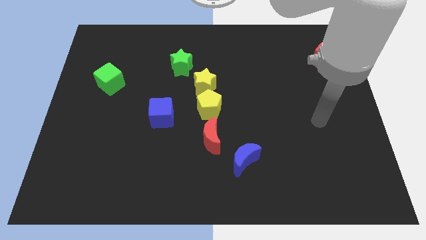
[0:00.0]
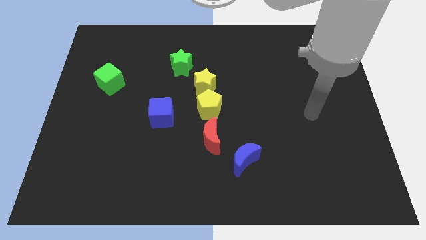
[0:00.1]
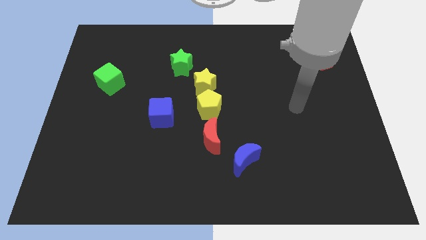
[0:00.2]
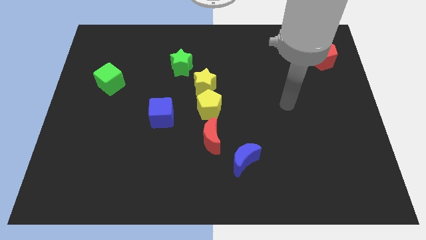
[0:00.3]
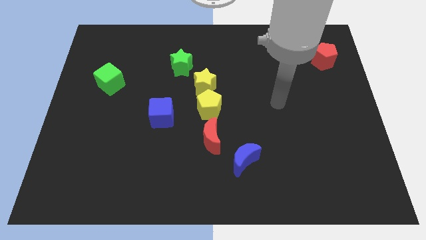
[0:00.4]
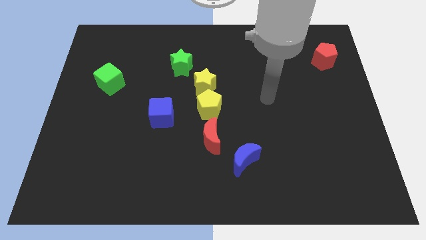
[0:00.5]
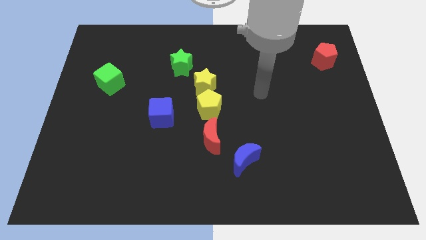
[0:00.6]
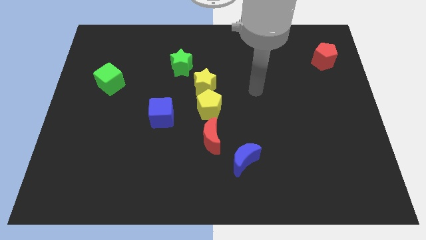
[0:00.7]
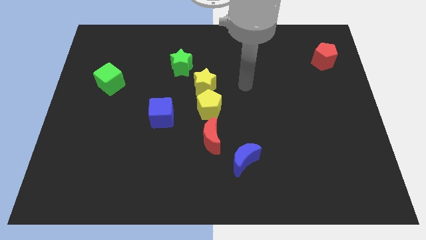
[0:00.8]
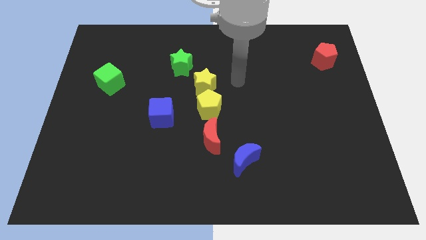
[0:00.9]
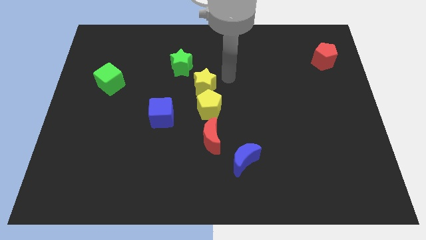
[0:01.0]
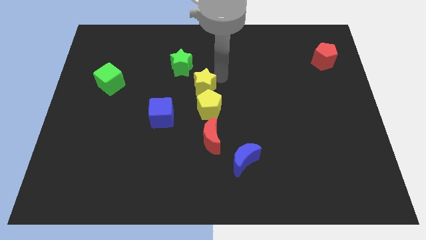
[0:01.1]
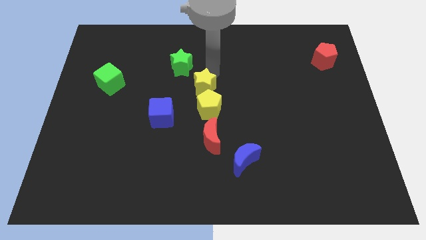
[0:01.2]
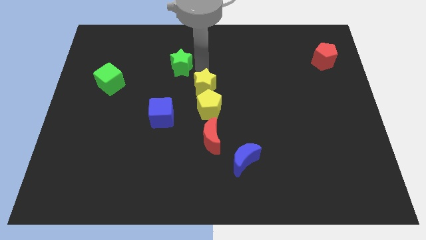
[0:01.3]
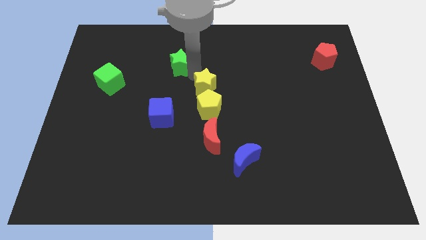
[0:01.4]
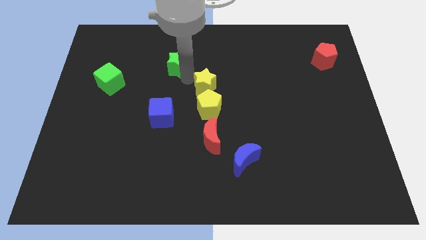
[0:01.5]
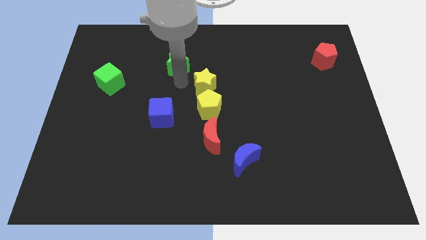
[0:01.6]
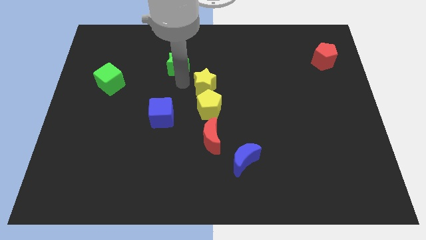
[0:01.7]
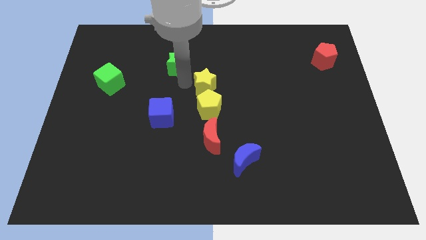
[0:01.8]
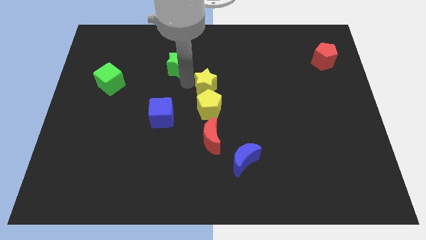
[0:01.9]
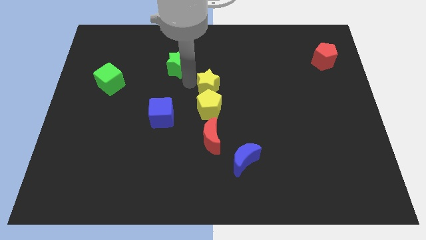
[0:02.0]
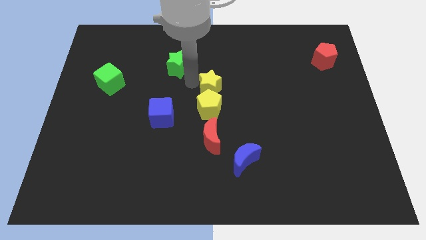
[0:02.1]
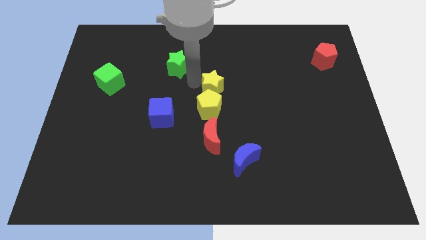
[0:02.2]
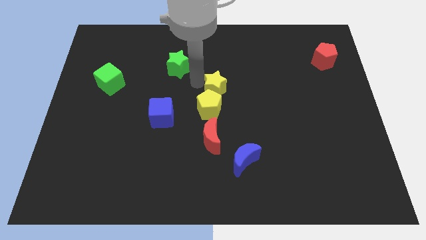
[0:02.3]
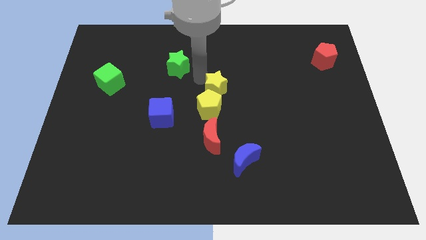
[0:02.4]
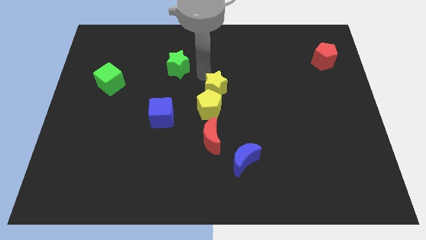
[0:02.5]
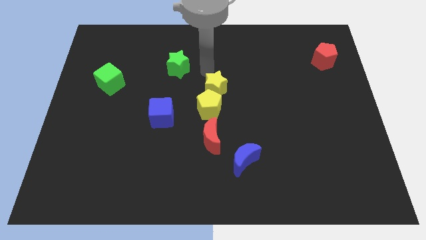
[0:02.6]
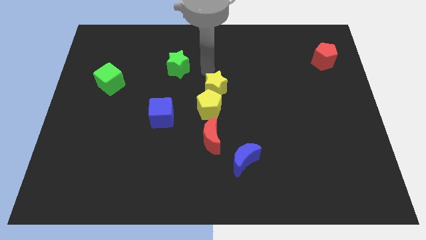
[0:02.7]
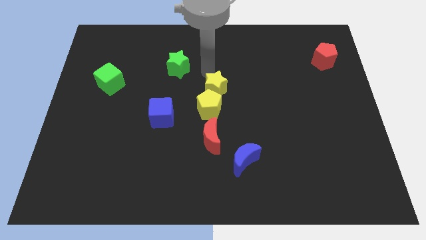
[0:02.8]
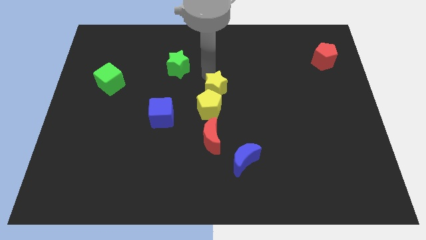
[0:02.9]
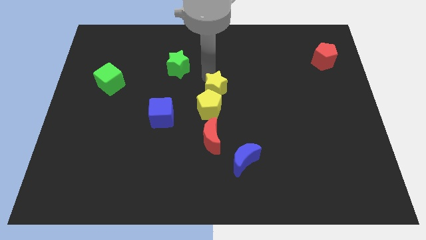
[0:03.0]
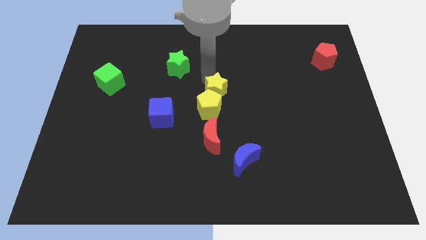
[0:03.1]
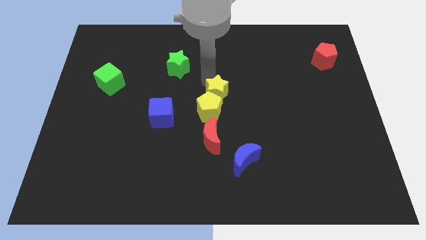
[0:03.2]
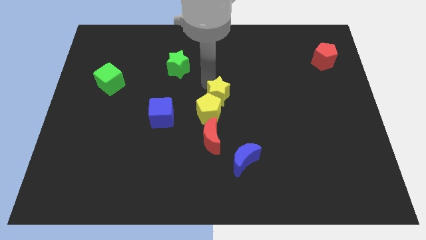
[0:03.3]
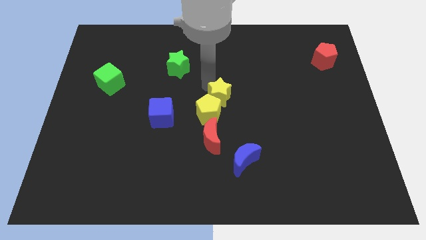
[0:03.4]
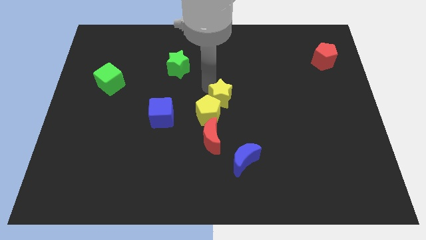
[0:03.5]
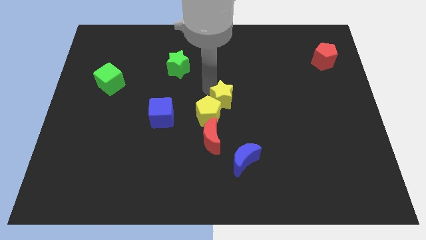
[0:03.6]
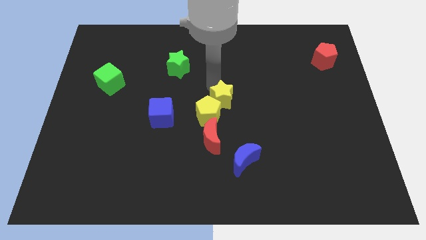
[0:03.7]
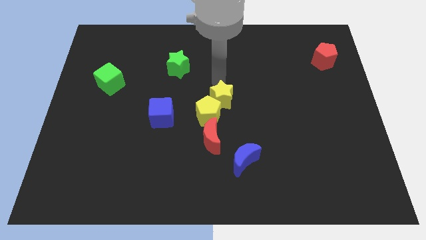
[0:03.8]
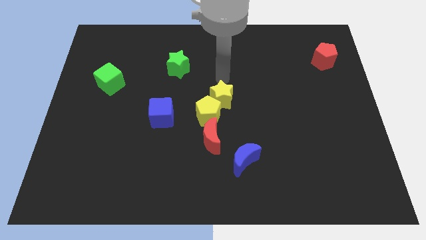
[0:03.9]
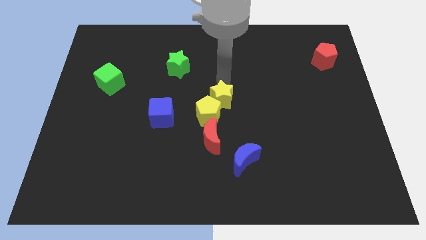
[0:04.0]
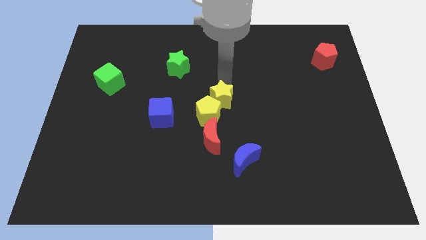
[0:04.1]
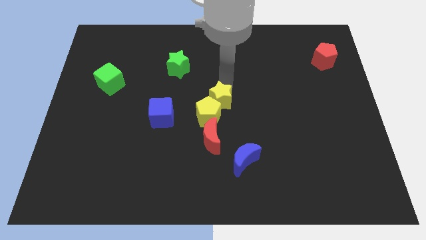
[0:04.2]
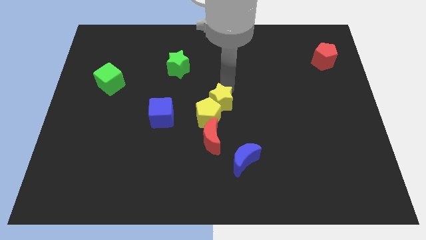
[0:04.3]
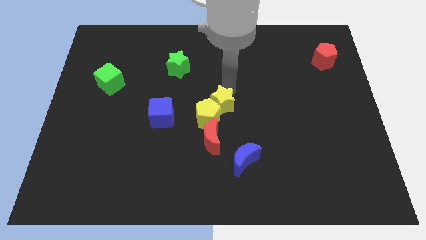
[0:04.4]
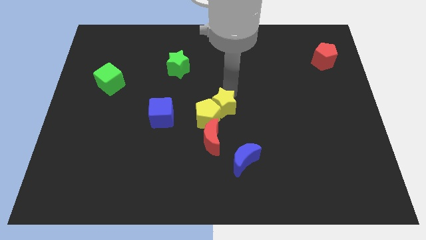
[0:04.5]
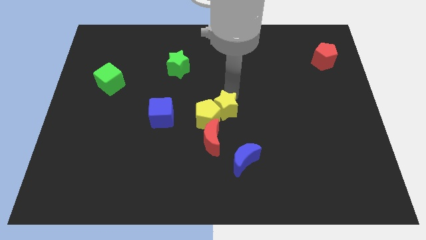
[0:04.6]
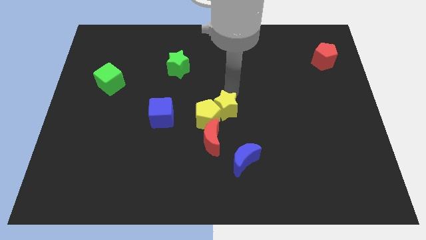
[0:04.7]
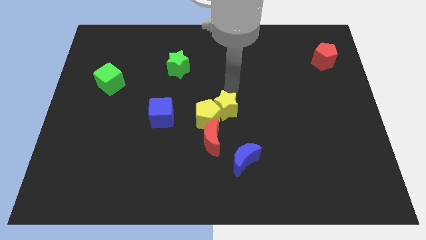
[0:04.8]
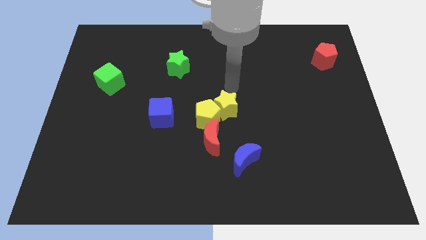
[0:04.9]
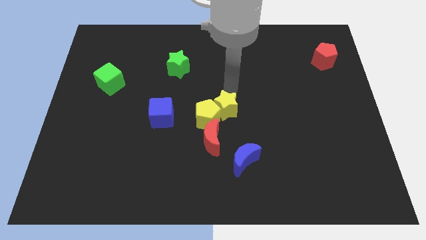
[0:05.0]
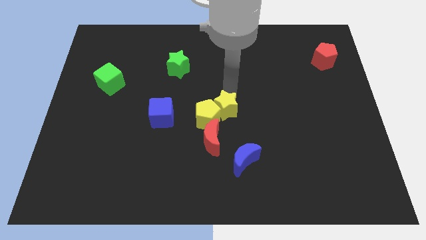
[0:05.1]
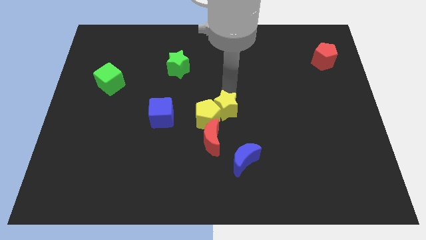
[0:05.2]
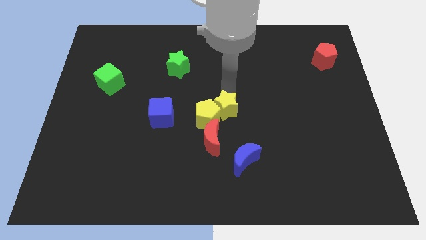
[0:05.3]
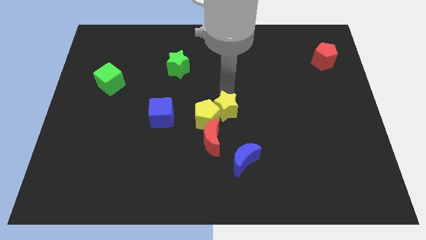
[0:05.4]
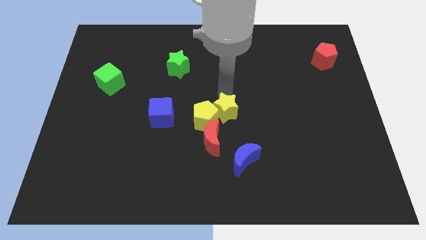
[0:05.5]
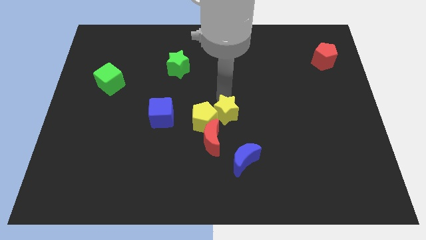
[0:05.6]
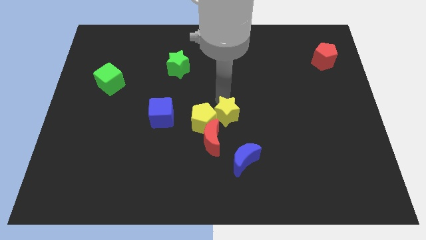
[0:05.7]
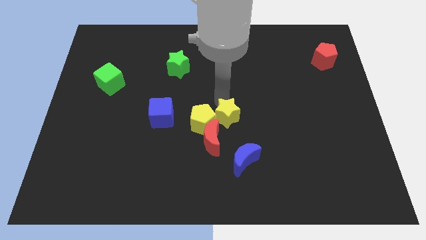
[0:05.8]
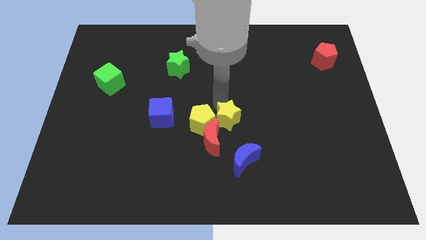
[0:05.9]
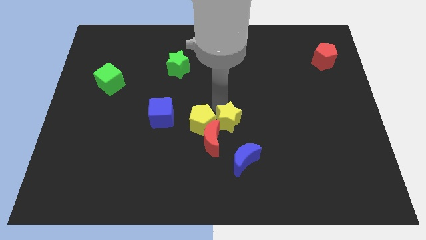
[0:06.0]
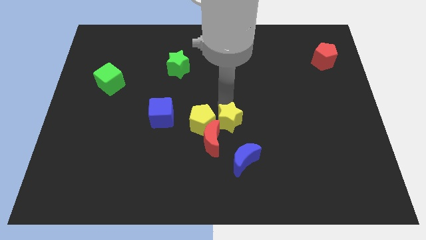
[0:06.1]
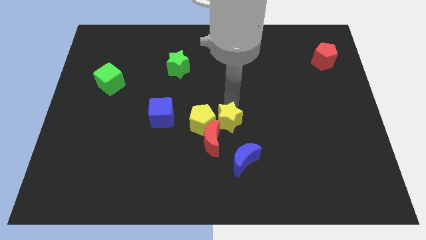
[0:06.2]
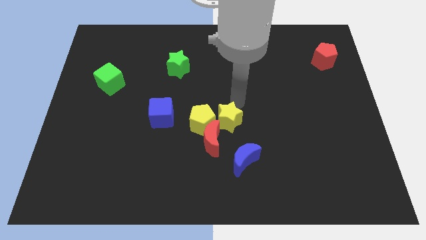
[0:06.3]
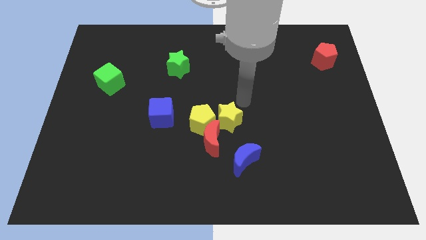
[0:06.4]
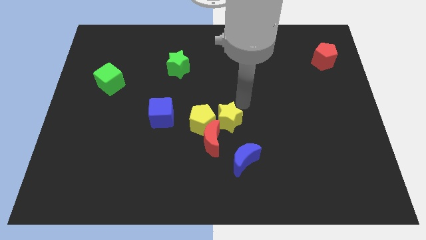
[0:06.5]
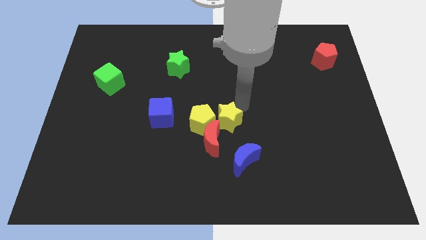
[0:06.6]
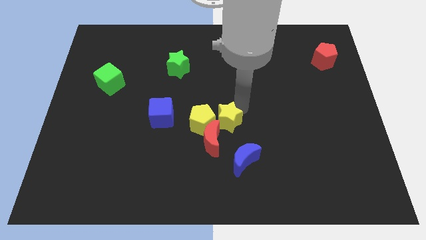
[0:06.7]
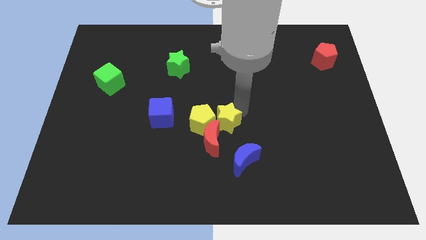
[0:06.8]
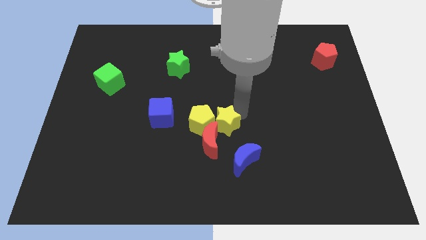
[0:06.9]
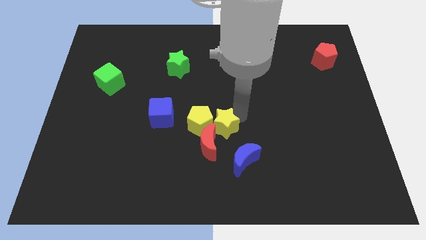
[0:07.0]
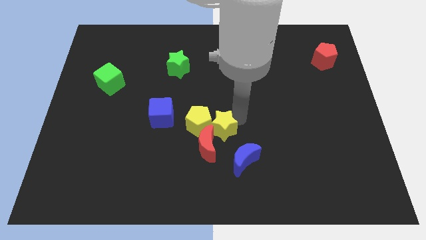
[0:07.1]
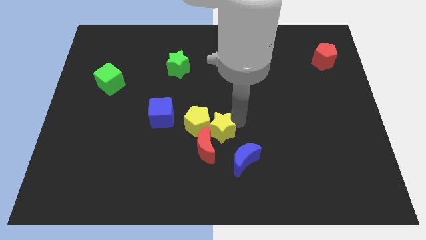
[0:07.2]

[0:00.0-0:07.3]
slide the yellow star close to the red moon
